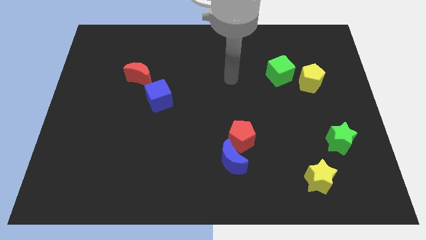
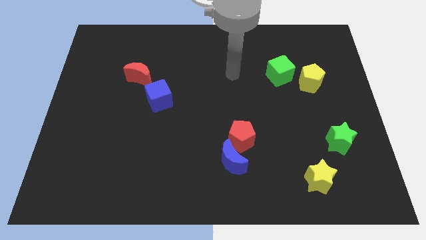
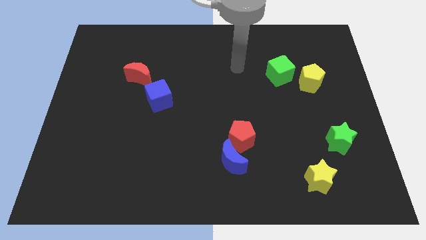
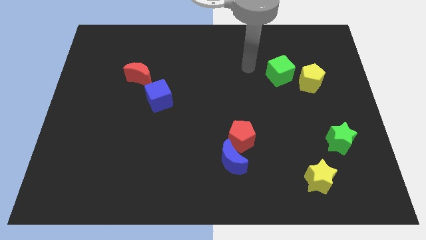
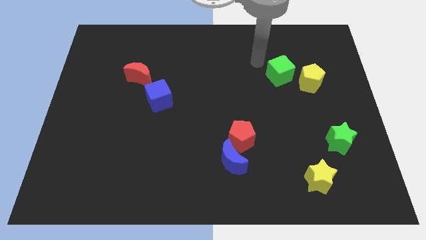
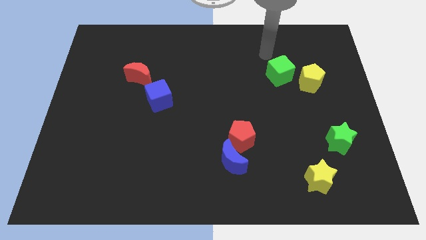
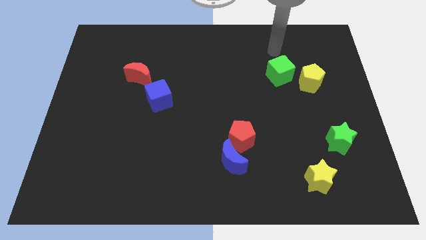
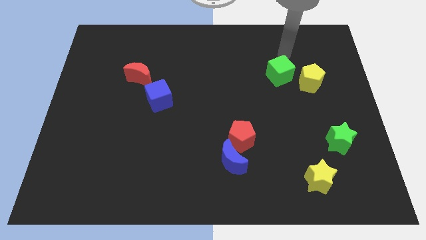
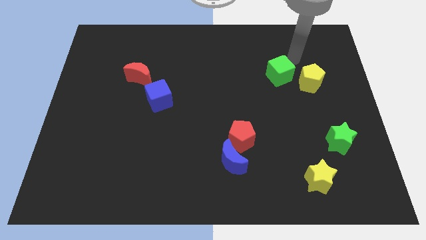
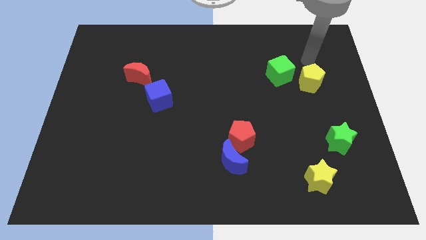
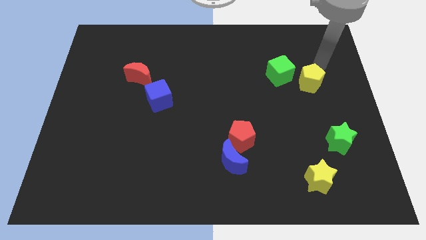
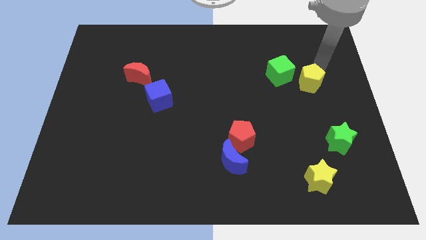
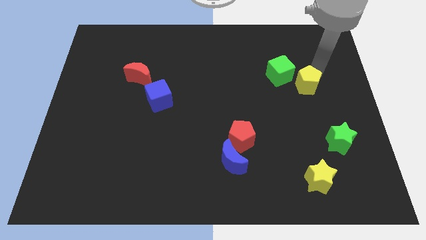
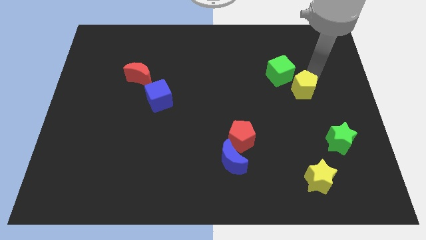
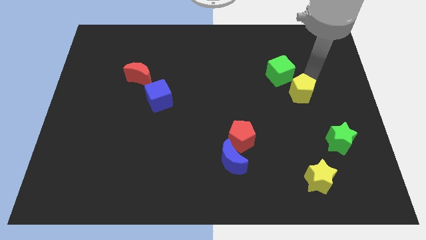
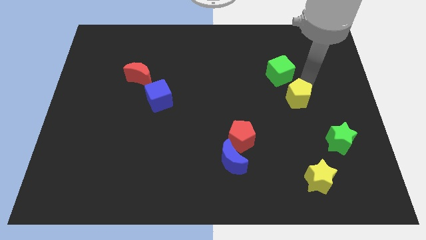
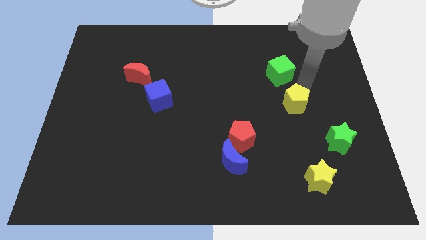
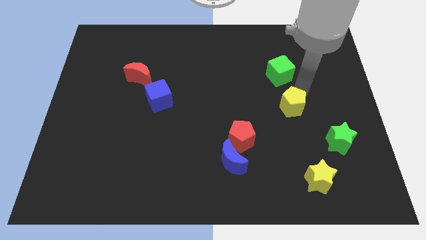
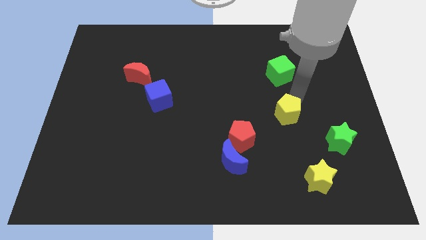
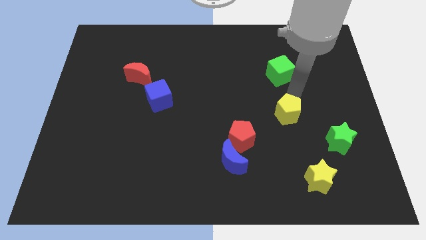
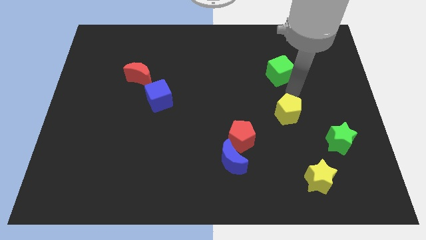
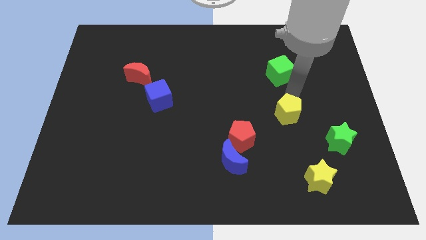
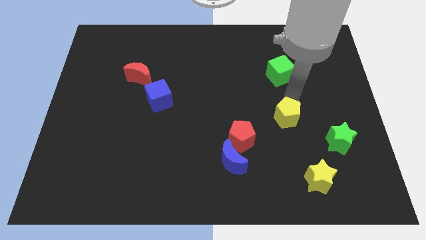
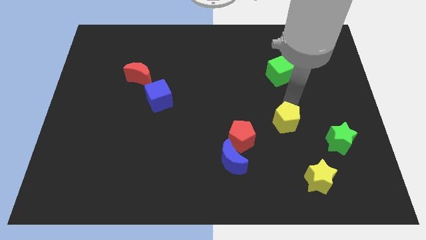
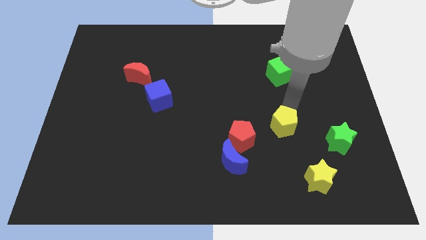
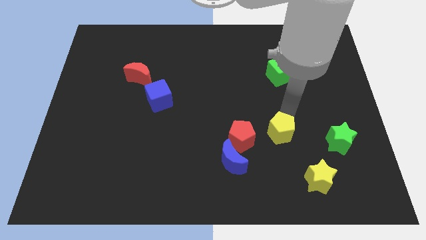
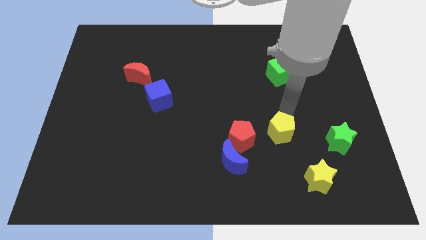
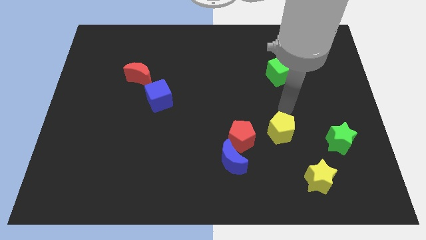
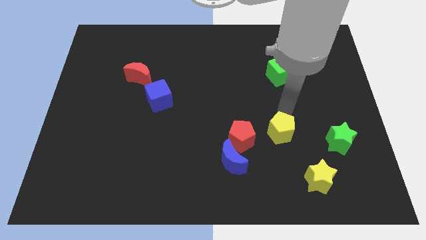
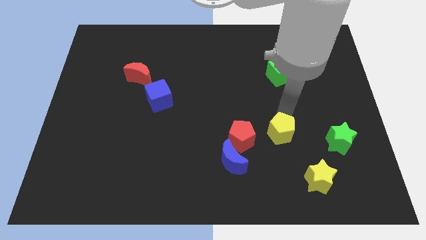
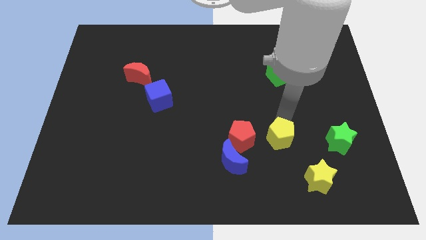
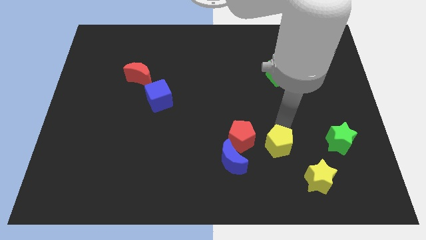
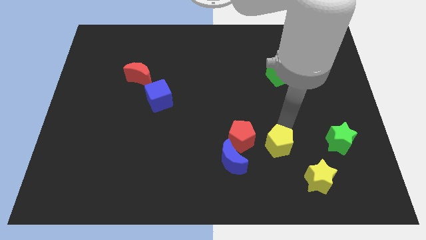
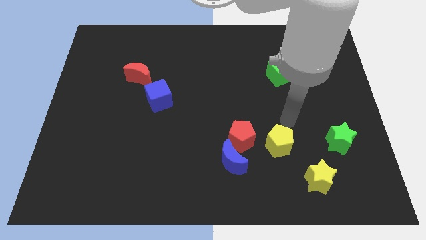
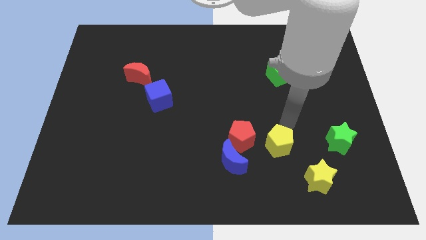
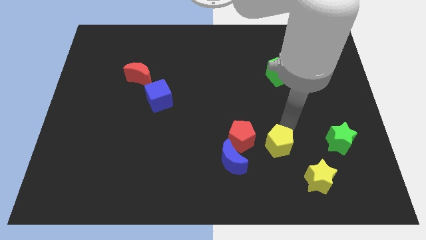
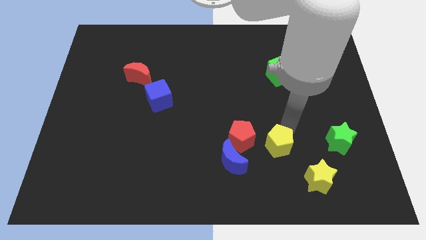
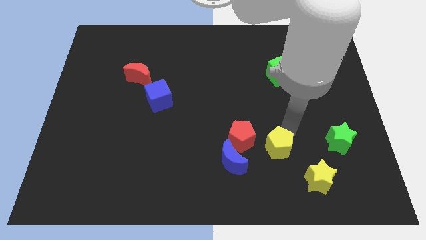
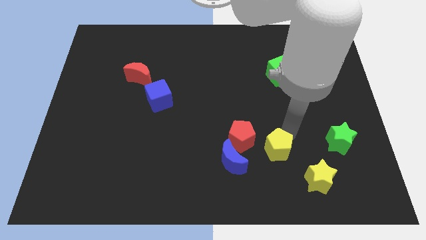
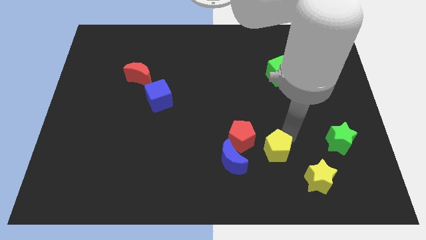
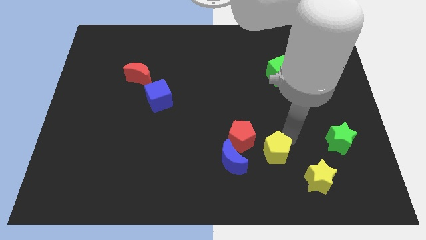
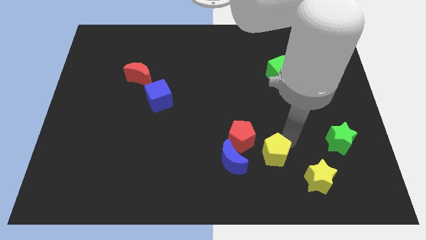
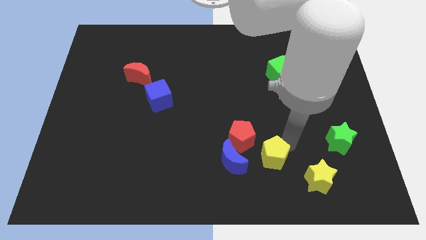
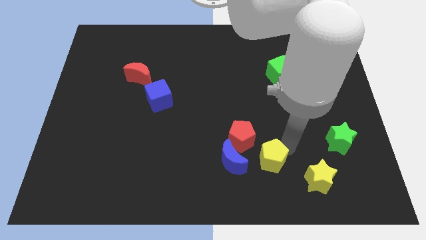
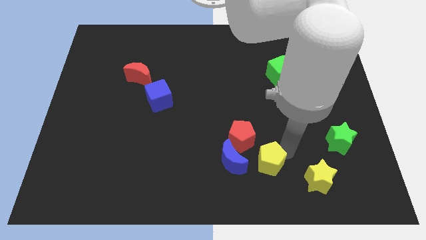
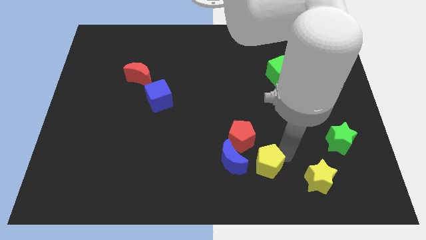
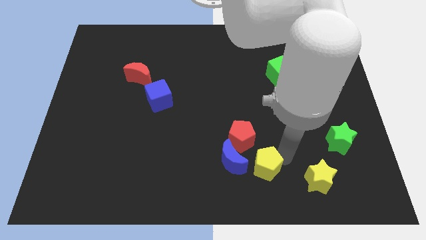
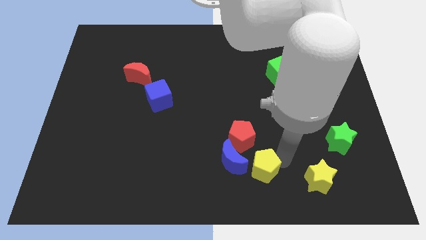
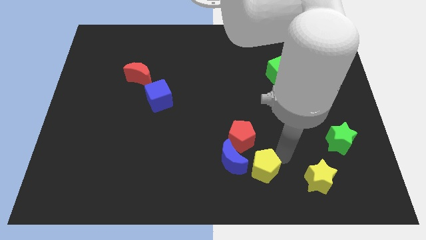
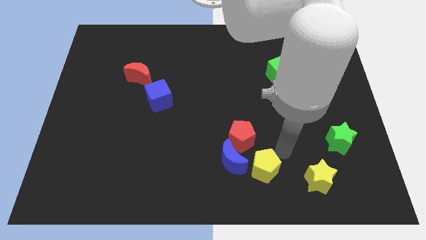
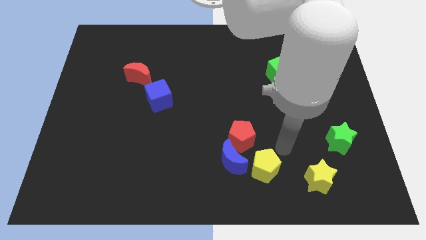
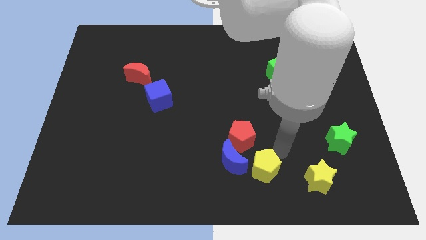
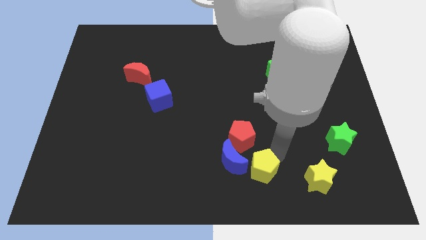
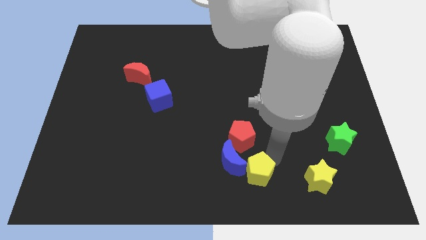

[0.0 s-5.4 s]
put the yellow pentagon to the bottom

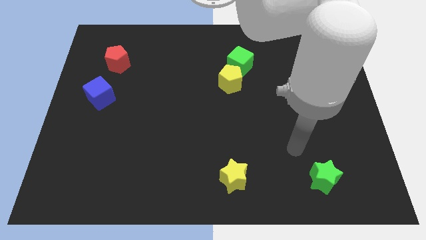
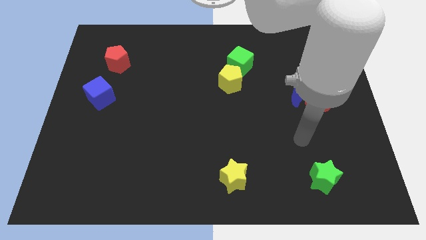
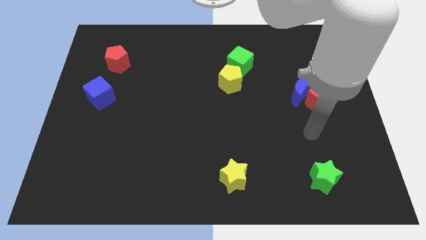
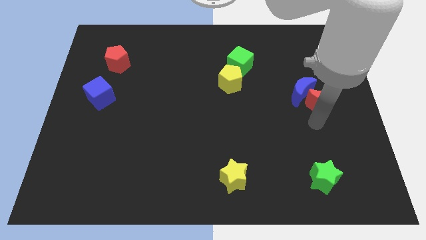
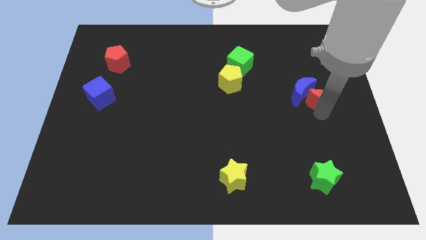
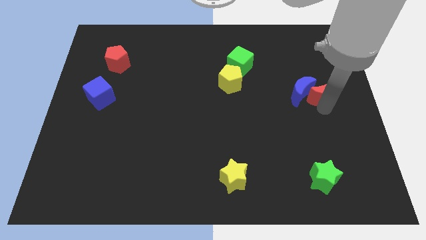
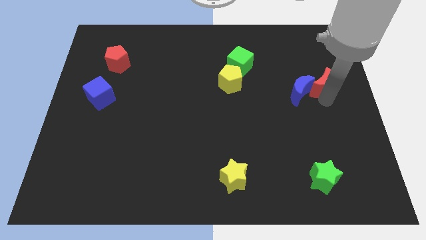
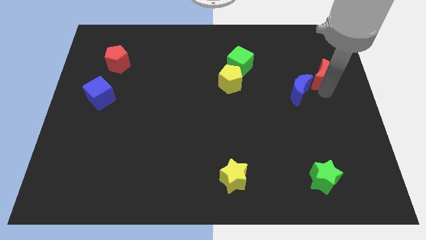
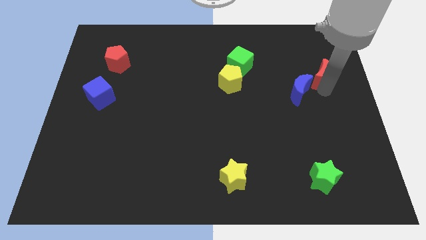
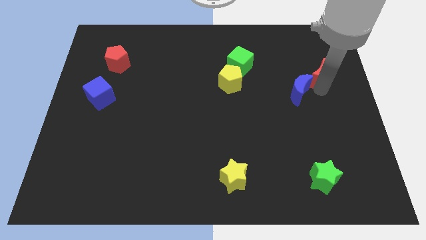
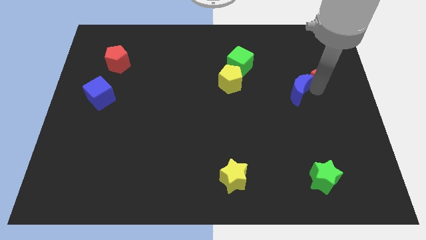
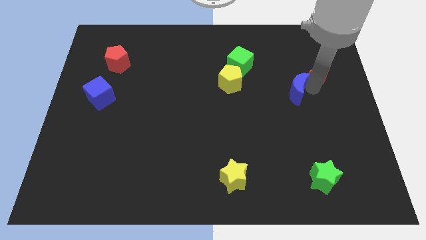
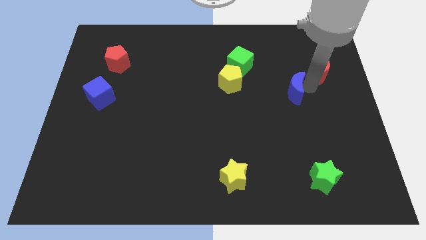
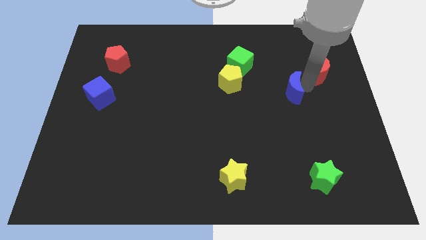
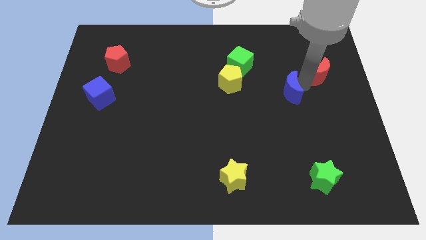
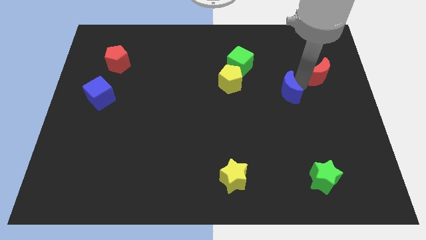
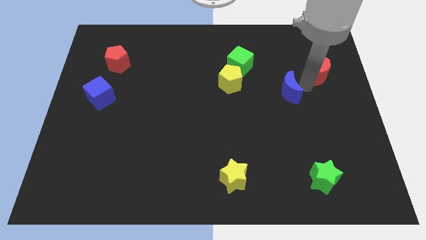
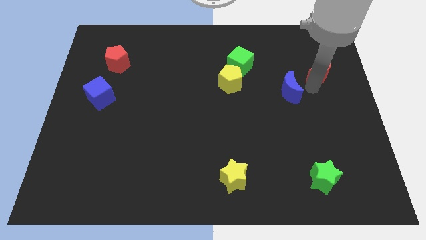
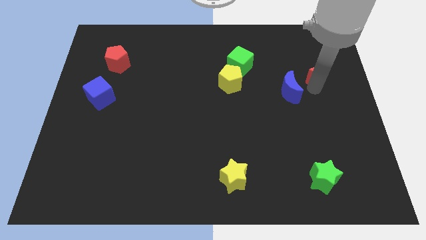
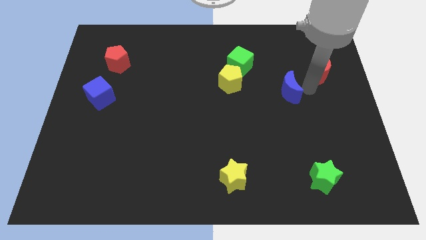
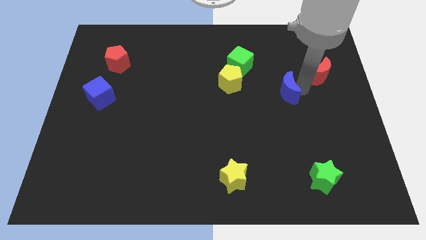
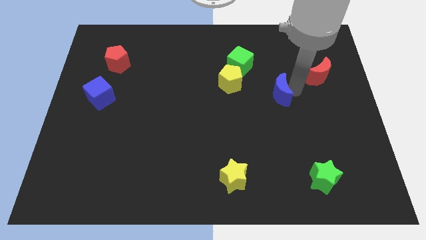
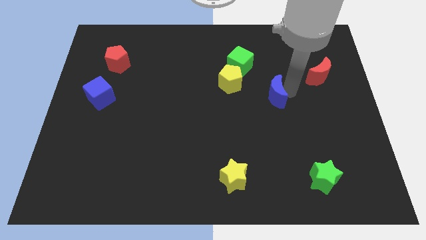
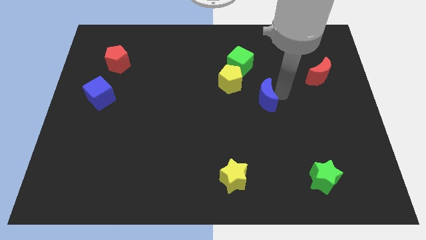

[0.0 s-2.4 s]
push the blue moon to the middle of the board
